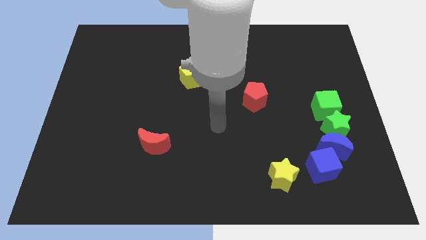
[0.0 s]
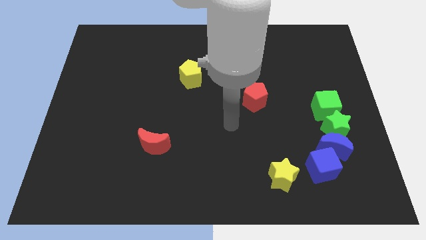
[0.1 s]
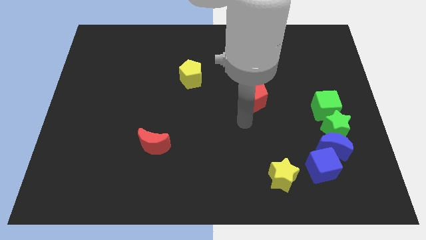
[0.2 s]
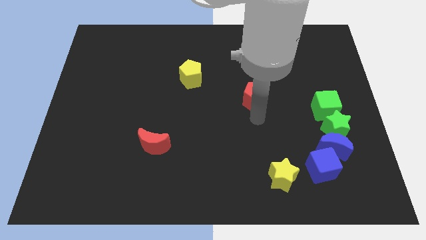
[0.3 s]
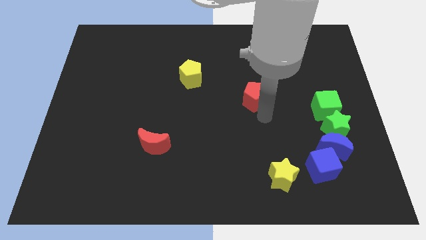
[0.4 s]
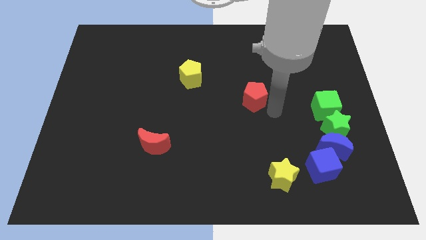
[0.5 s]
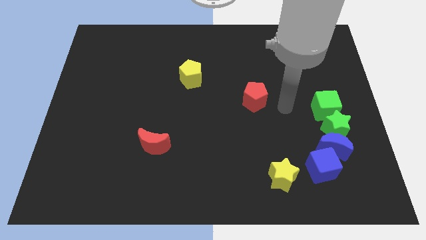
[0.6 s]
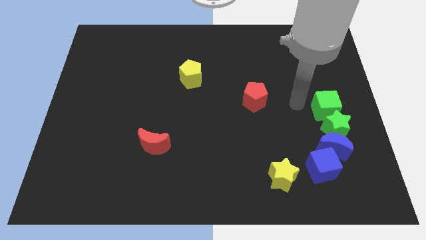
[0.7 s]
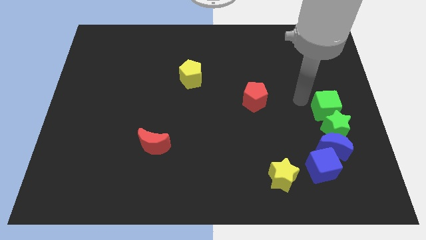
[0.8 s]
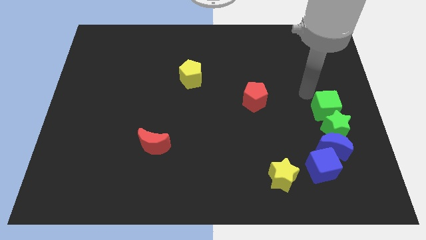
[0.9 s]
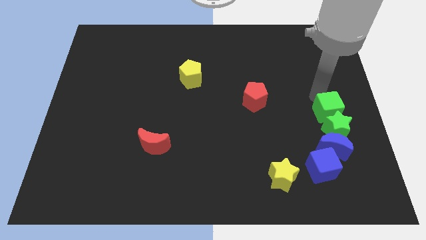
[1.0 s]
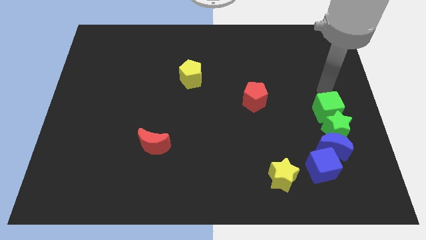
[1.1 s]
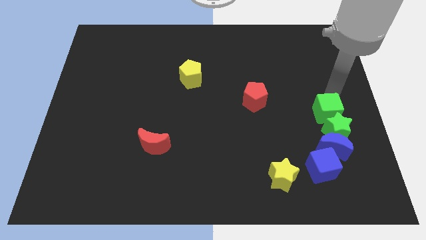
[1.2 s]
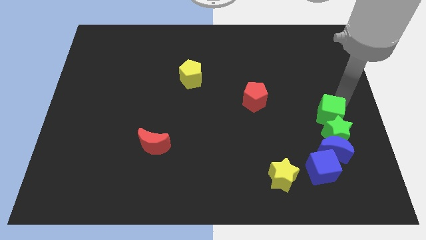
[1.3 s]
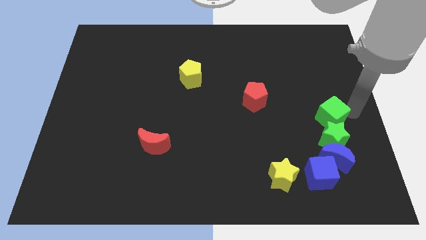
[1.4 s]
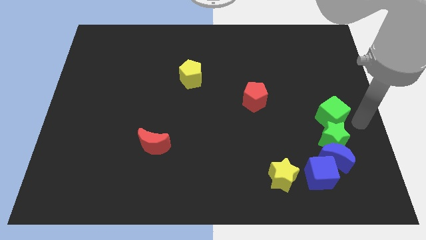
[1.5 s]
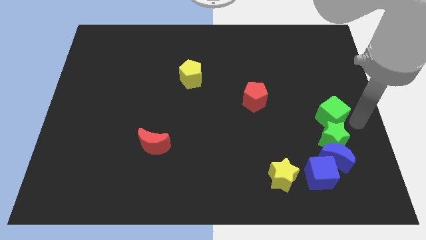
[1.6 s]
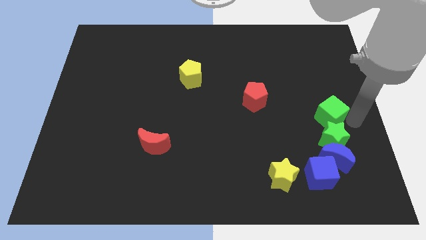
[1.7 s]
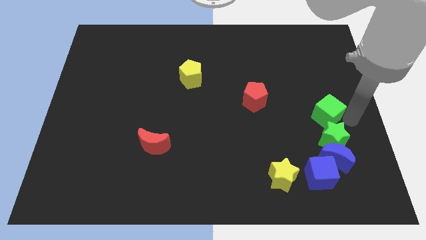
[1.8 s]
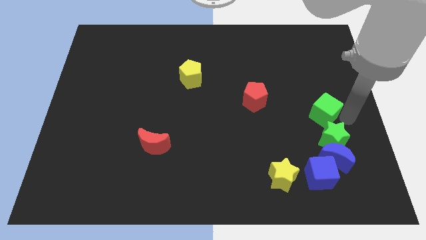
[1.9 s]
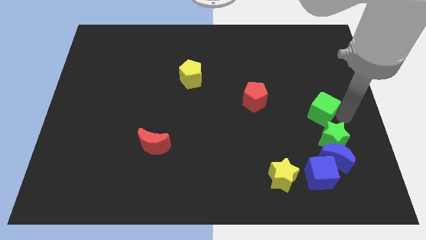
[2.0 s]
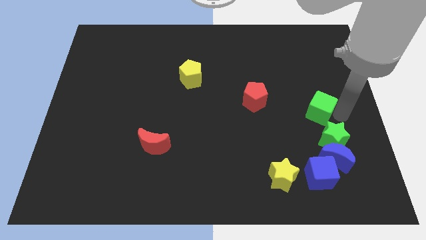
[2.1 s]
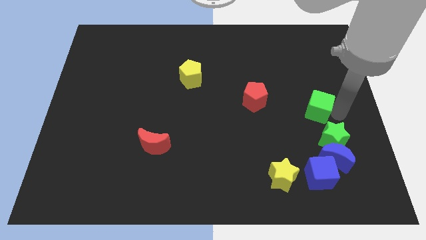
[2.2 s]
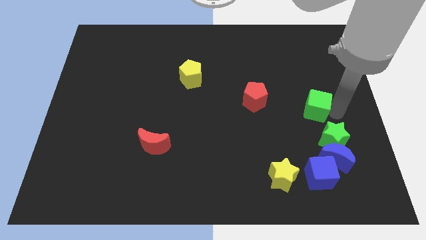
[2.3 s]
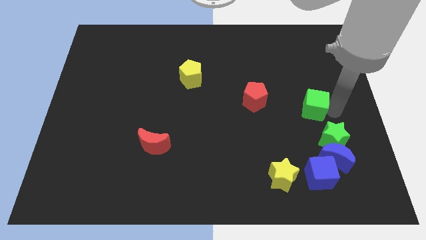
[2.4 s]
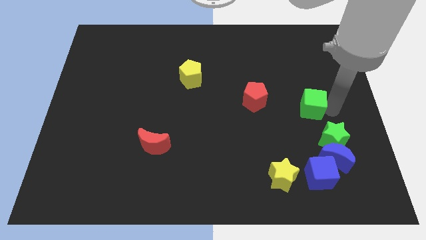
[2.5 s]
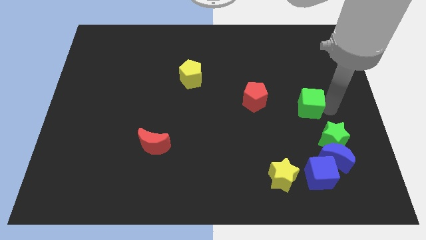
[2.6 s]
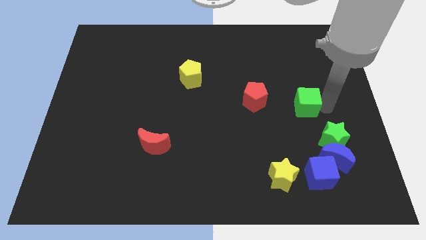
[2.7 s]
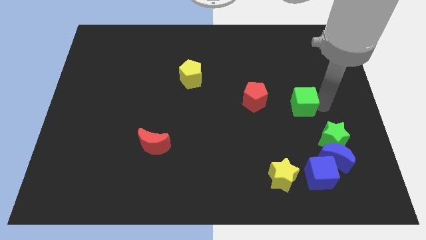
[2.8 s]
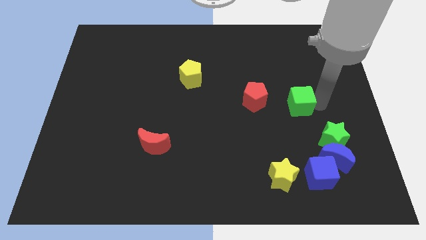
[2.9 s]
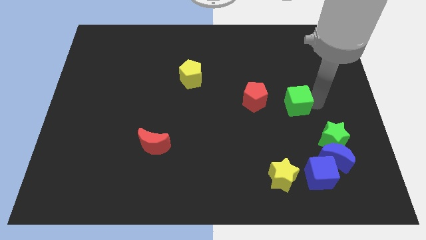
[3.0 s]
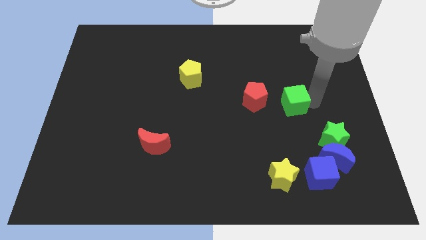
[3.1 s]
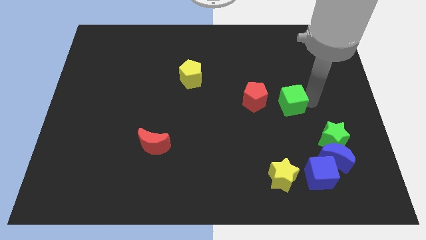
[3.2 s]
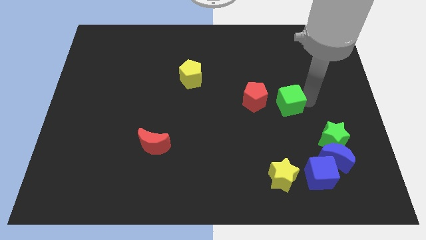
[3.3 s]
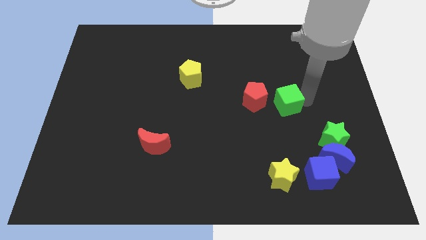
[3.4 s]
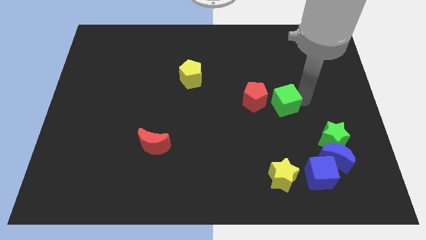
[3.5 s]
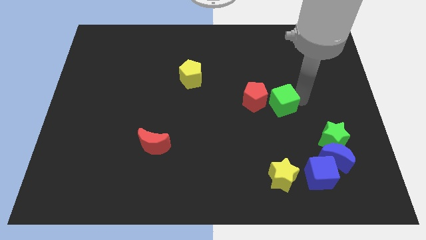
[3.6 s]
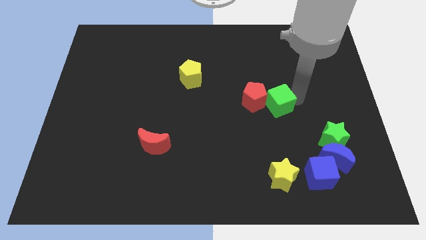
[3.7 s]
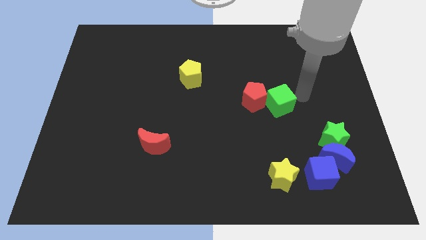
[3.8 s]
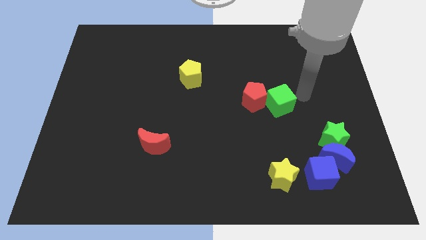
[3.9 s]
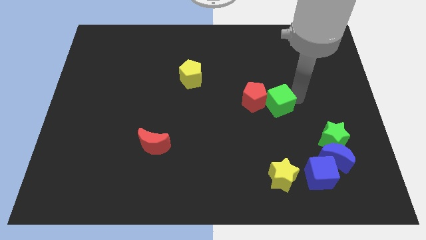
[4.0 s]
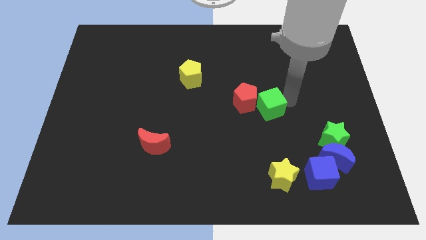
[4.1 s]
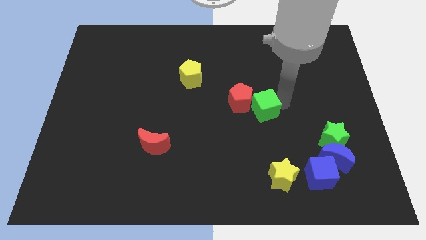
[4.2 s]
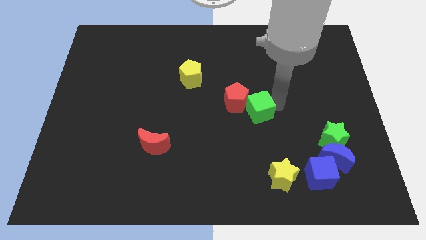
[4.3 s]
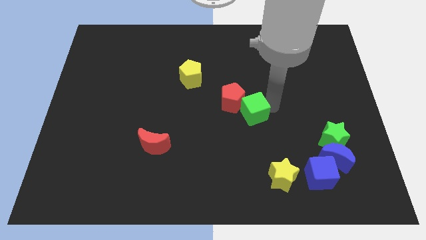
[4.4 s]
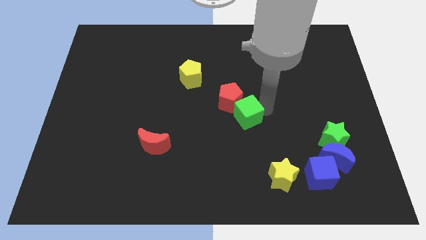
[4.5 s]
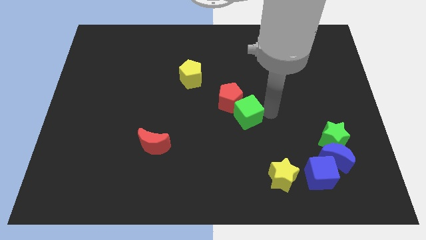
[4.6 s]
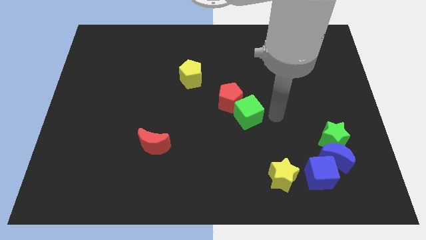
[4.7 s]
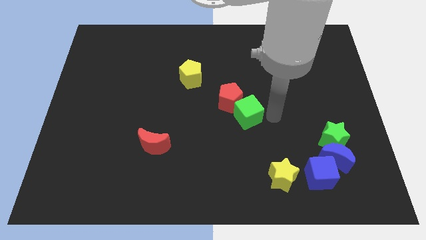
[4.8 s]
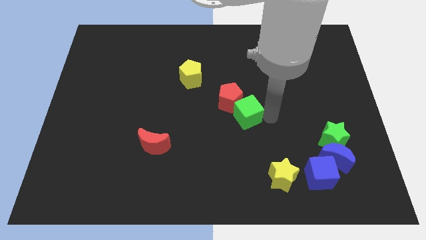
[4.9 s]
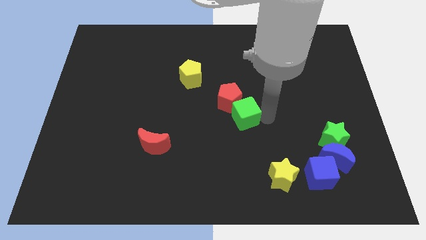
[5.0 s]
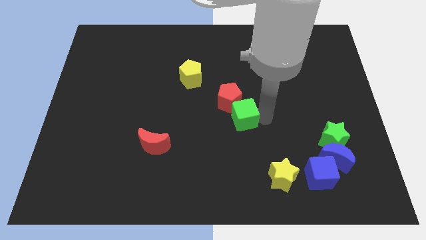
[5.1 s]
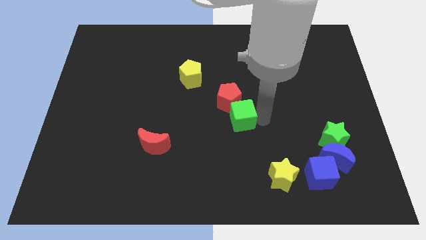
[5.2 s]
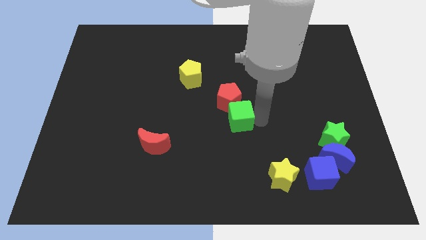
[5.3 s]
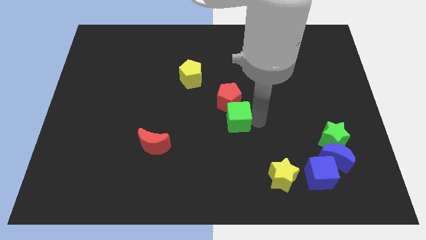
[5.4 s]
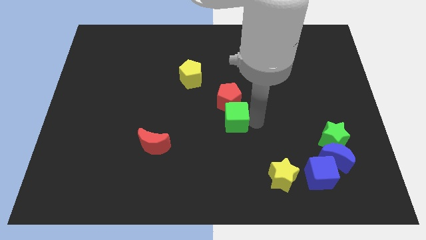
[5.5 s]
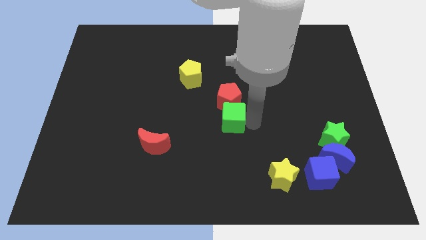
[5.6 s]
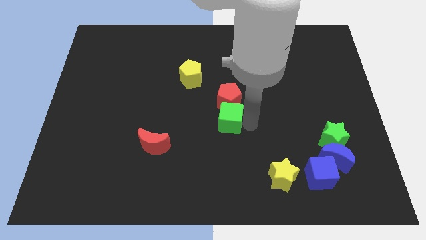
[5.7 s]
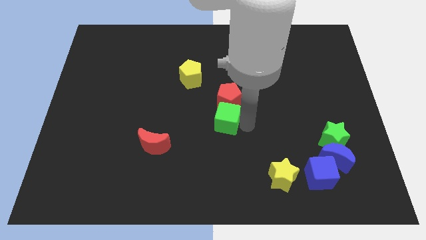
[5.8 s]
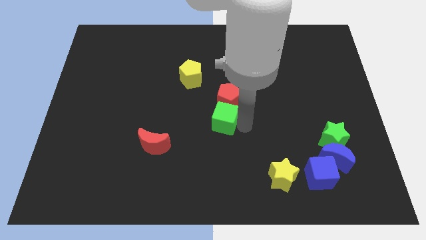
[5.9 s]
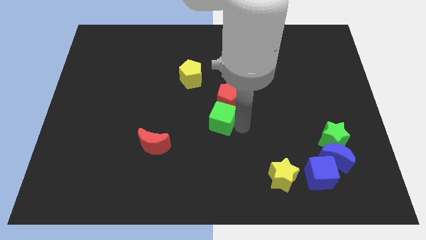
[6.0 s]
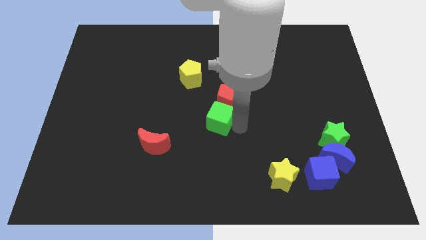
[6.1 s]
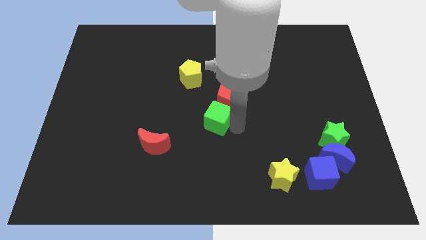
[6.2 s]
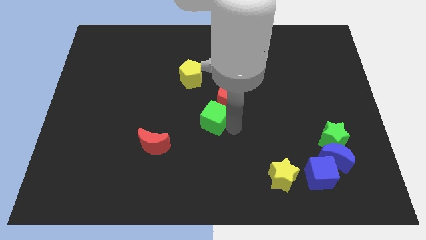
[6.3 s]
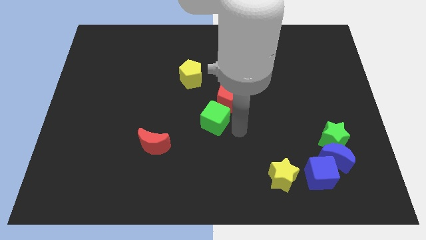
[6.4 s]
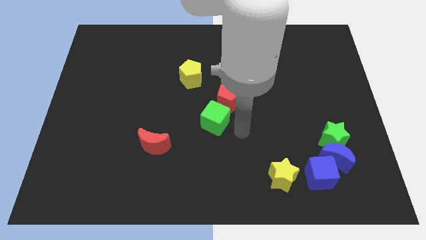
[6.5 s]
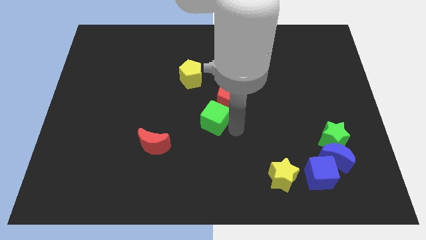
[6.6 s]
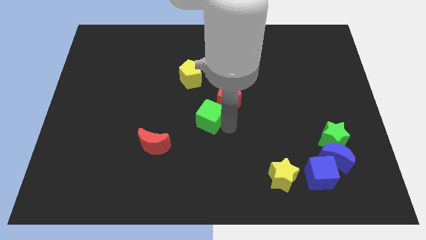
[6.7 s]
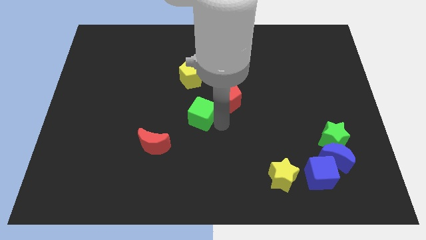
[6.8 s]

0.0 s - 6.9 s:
slide the green cube below the yellow pentagon
